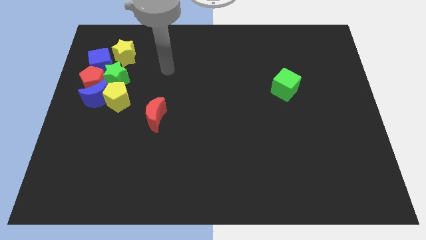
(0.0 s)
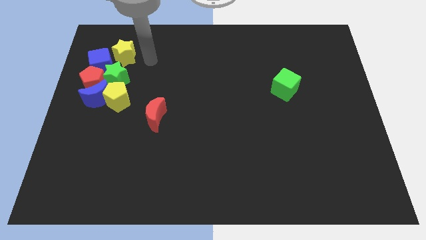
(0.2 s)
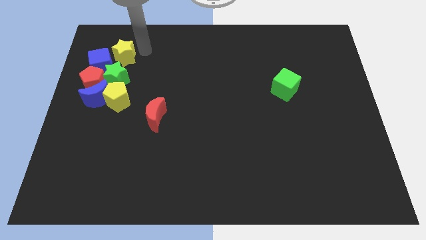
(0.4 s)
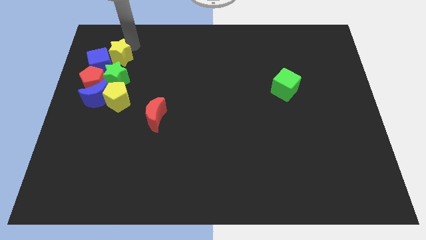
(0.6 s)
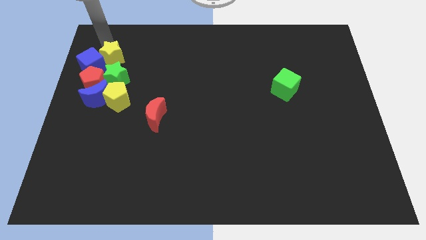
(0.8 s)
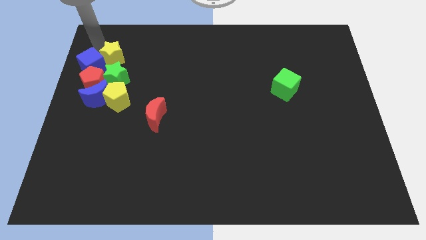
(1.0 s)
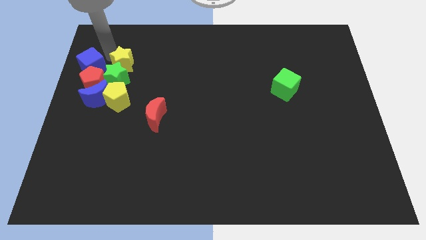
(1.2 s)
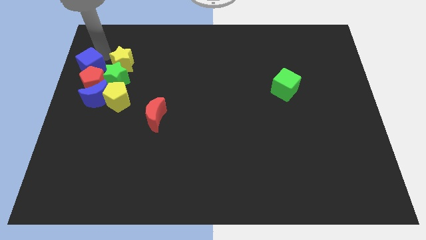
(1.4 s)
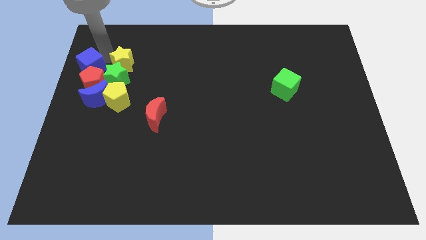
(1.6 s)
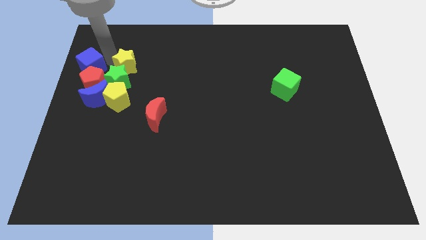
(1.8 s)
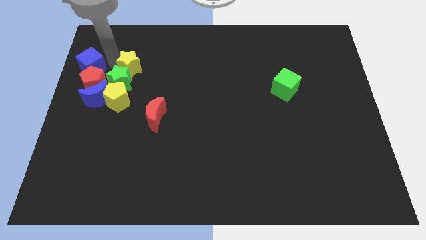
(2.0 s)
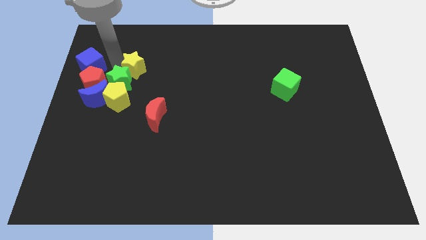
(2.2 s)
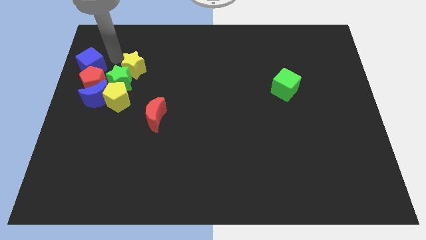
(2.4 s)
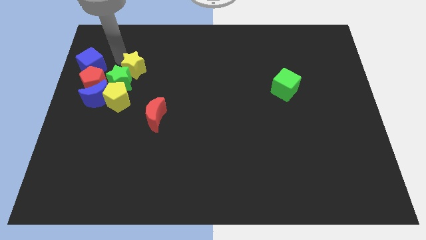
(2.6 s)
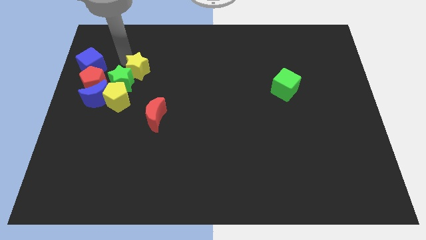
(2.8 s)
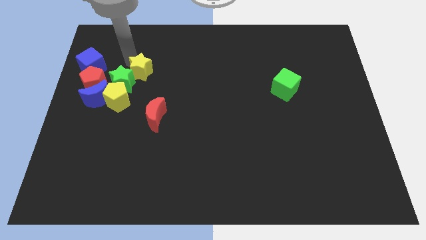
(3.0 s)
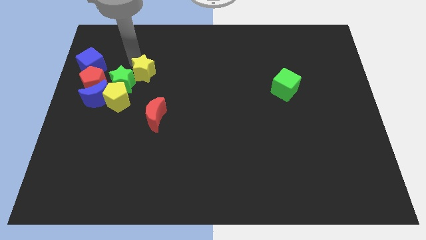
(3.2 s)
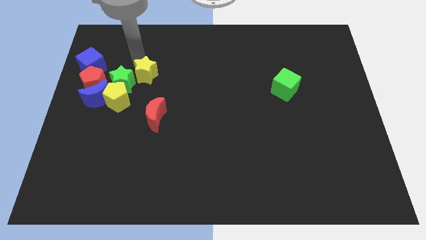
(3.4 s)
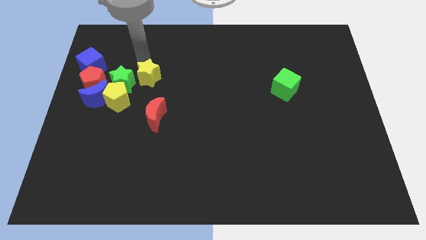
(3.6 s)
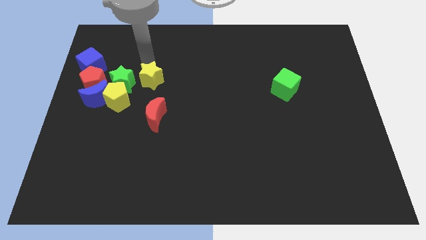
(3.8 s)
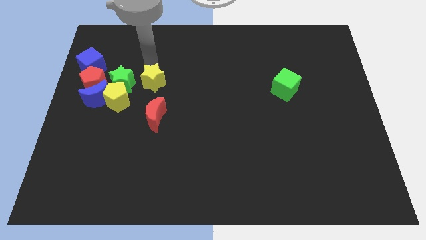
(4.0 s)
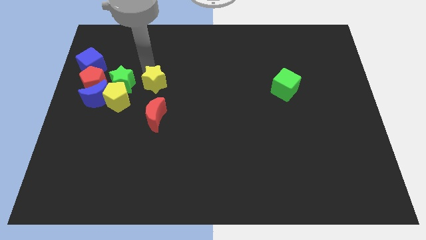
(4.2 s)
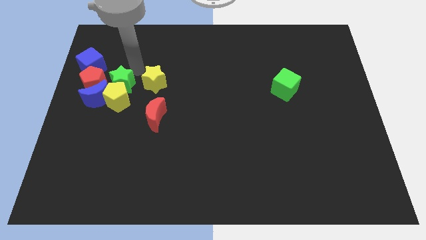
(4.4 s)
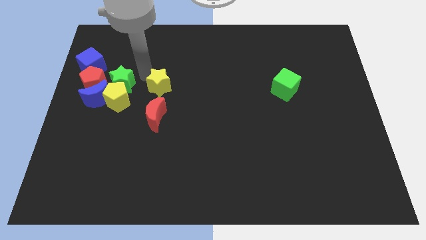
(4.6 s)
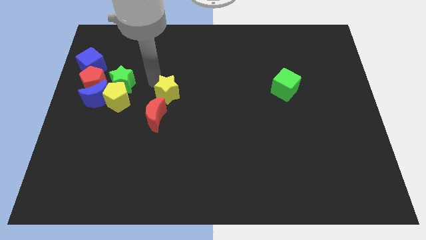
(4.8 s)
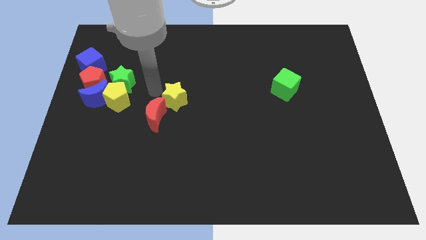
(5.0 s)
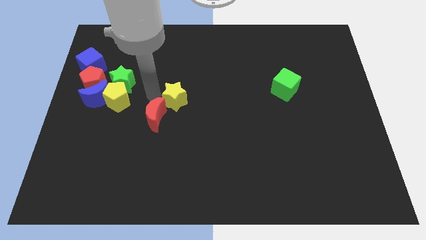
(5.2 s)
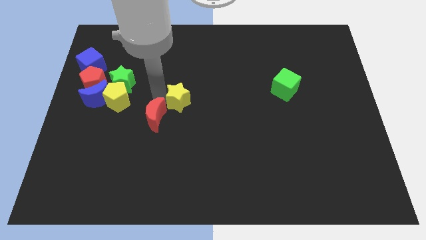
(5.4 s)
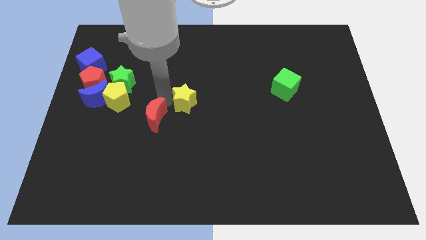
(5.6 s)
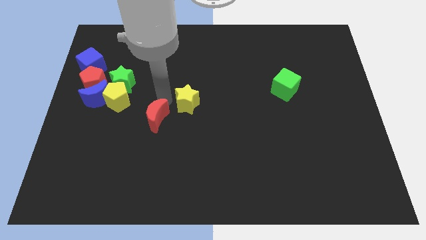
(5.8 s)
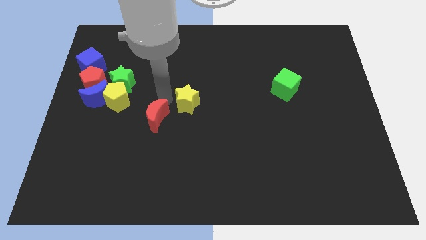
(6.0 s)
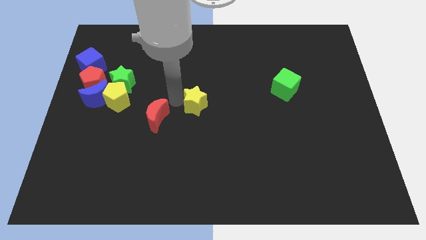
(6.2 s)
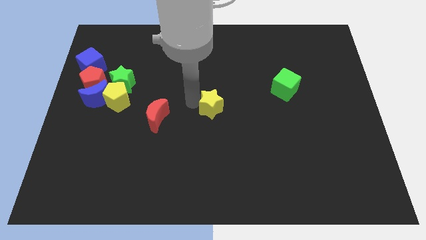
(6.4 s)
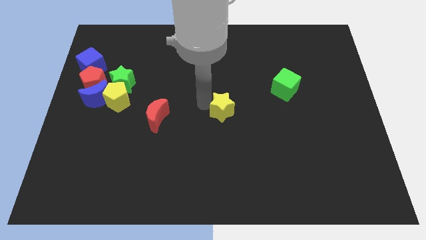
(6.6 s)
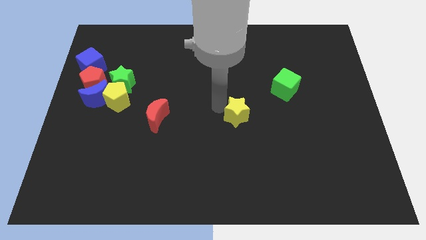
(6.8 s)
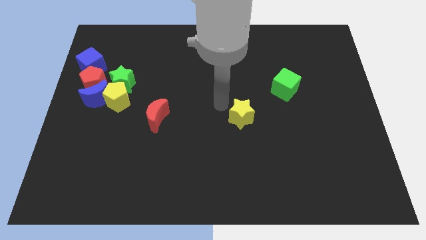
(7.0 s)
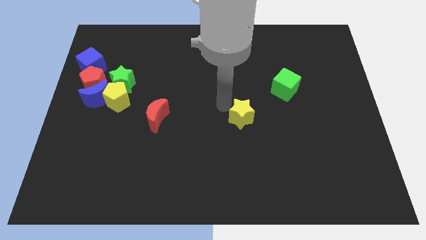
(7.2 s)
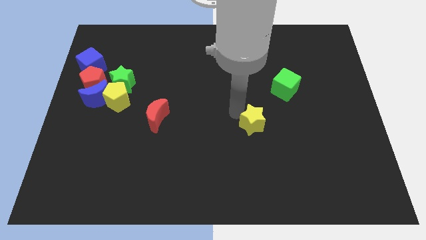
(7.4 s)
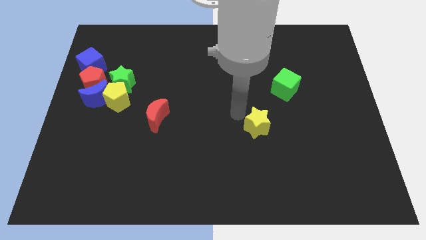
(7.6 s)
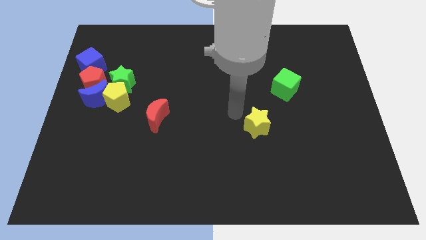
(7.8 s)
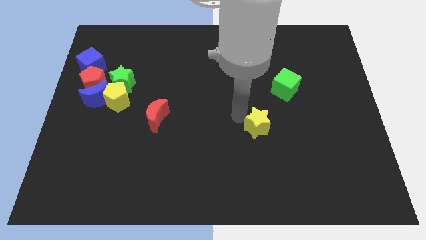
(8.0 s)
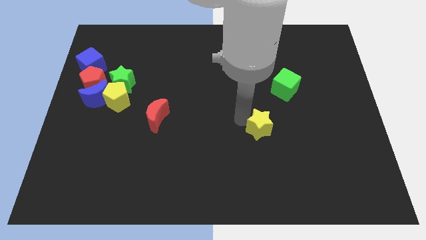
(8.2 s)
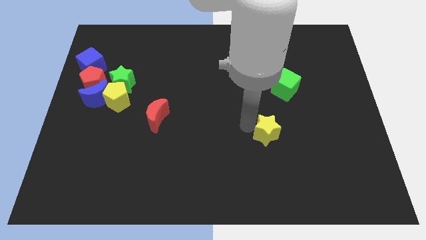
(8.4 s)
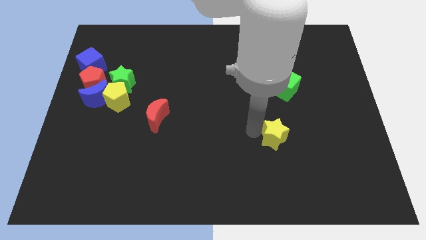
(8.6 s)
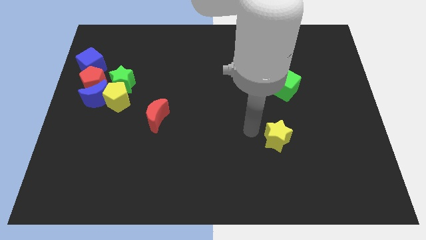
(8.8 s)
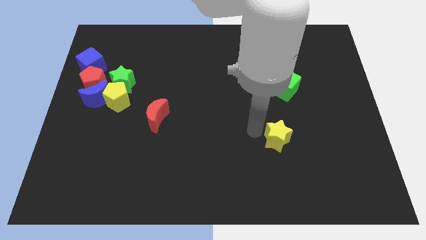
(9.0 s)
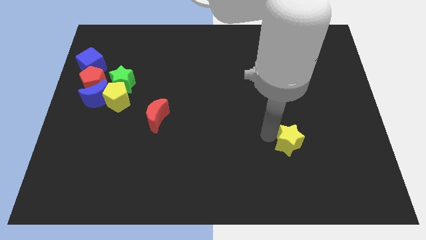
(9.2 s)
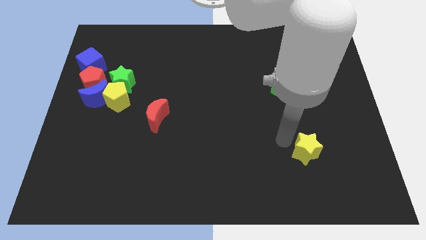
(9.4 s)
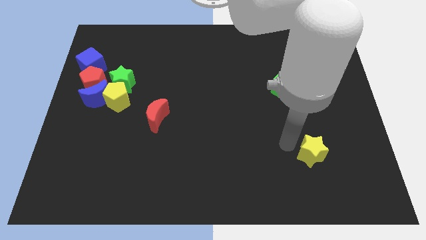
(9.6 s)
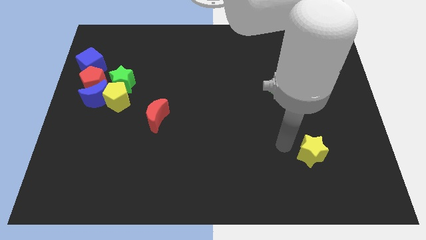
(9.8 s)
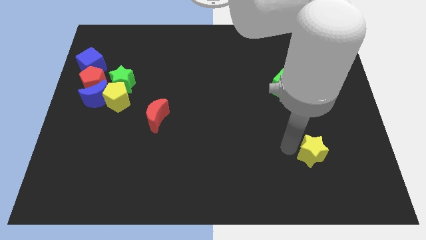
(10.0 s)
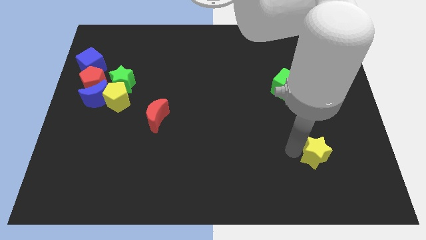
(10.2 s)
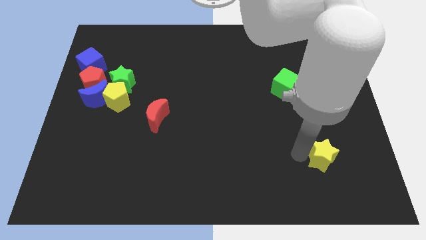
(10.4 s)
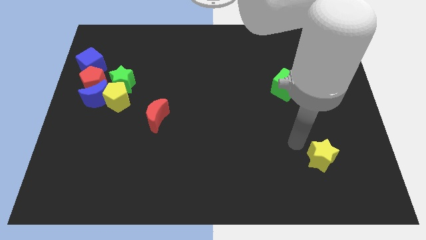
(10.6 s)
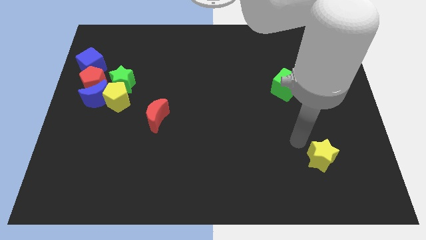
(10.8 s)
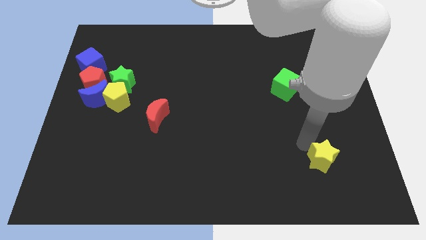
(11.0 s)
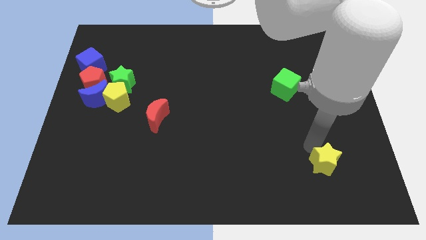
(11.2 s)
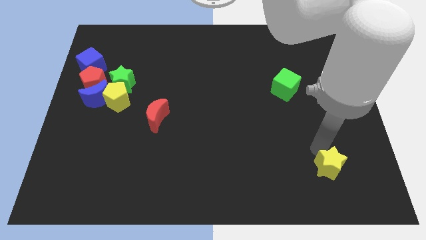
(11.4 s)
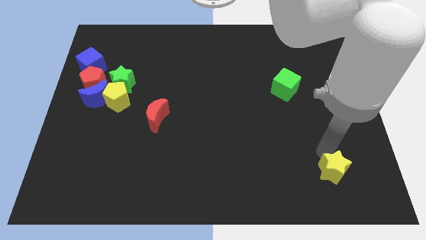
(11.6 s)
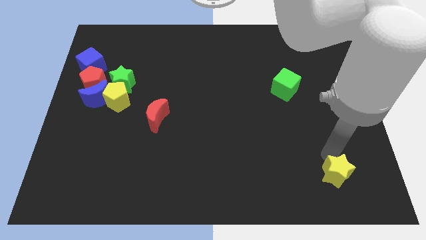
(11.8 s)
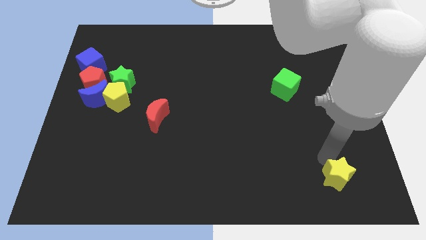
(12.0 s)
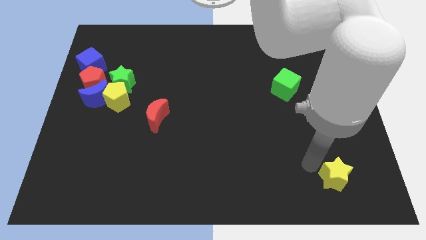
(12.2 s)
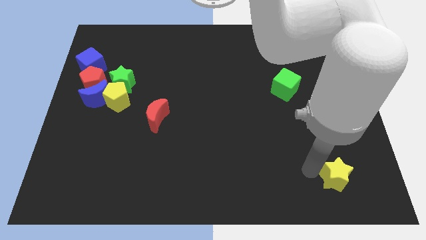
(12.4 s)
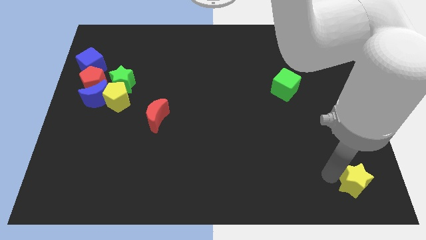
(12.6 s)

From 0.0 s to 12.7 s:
slide the yellow star to the bottom right corner

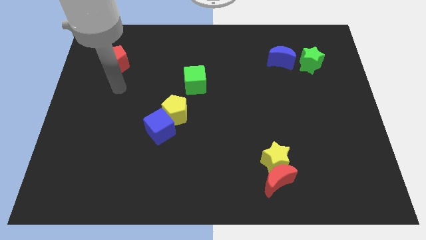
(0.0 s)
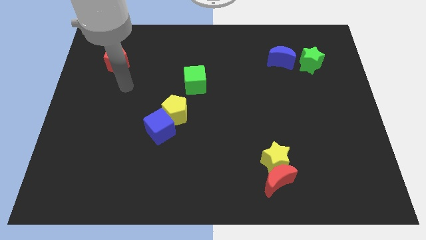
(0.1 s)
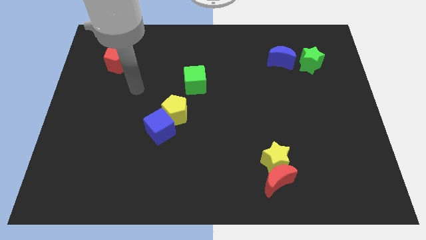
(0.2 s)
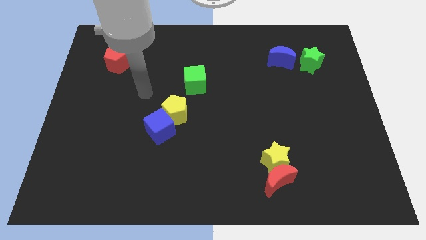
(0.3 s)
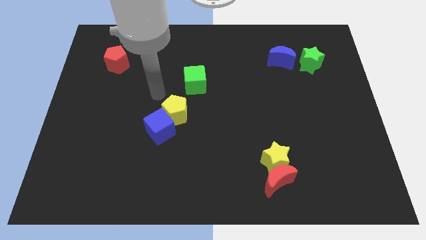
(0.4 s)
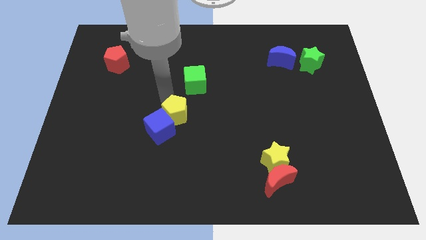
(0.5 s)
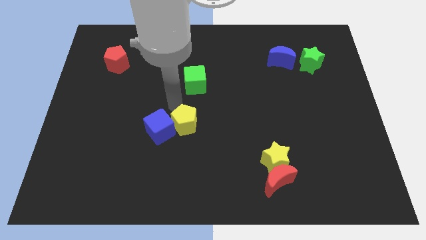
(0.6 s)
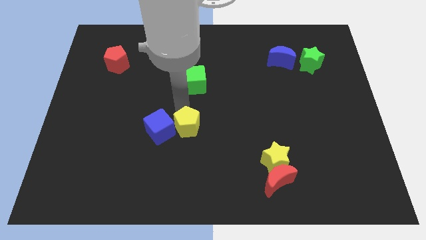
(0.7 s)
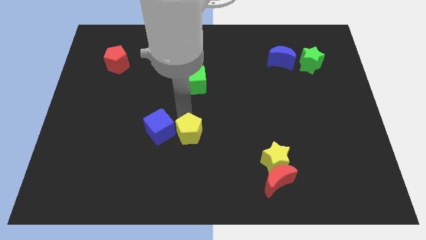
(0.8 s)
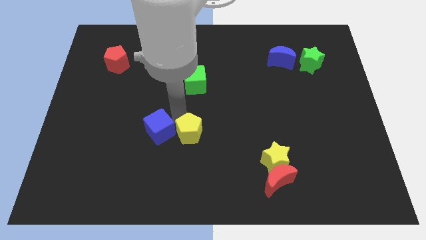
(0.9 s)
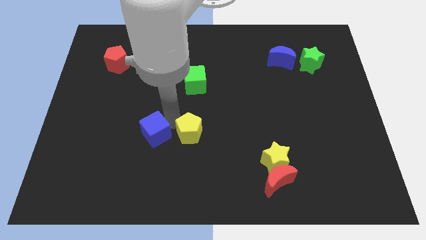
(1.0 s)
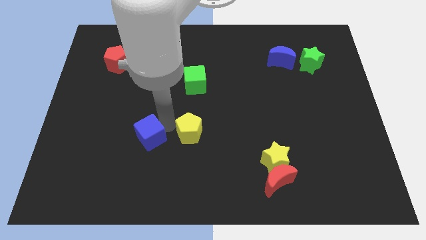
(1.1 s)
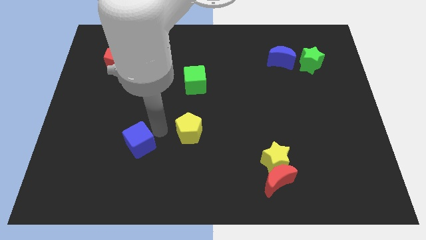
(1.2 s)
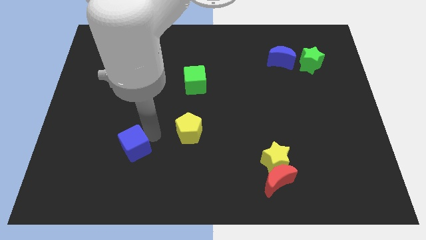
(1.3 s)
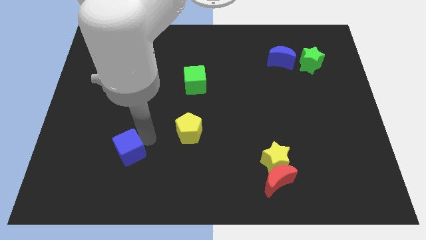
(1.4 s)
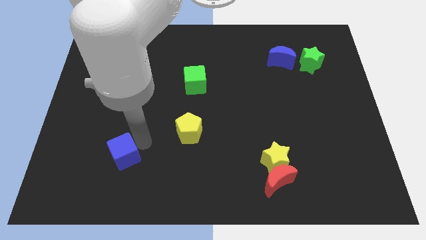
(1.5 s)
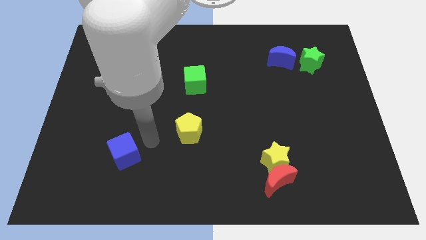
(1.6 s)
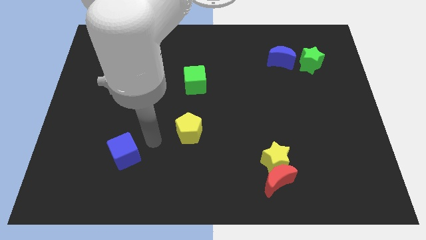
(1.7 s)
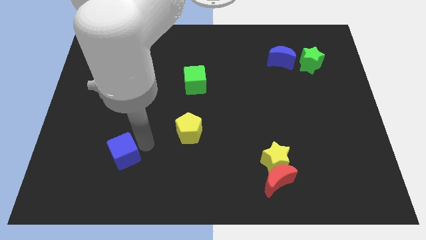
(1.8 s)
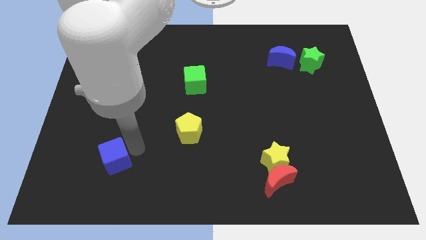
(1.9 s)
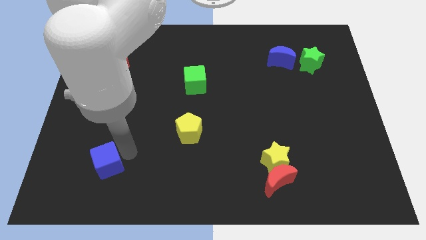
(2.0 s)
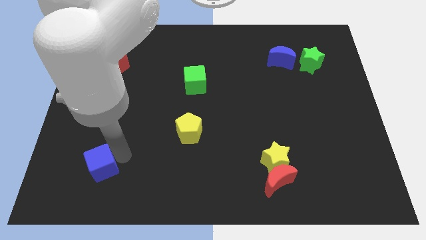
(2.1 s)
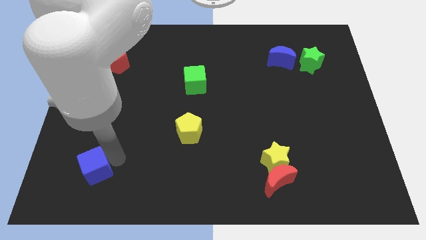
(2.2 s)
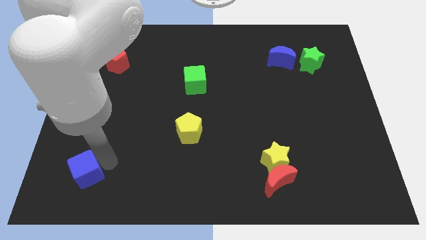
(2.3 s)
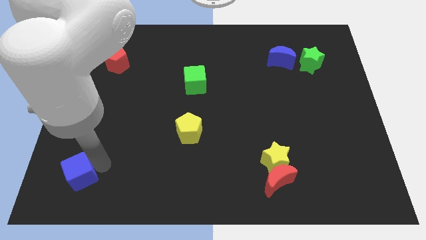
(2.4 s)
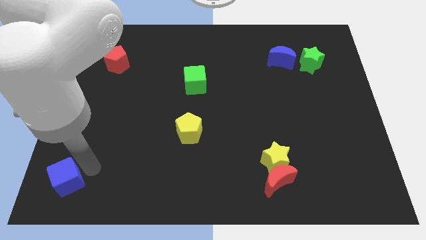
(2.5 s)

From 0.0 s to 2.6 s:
move the blue cube to the lower left corner
